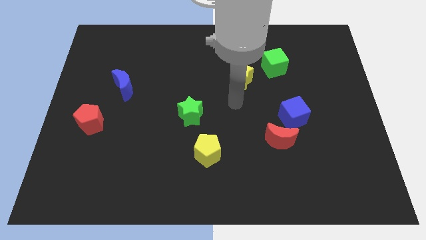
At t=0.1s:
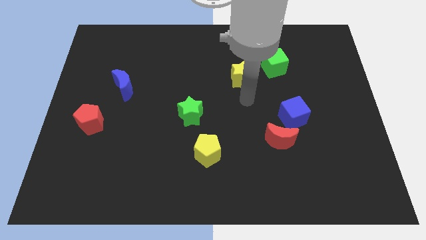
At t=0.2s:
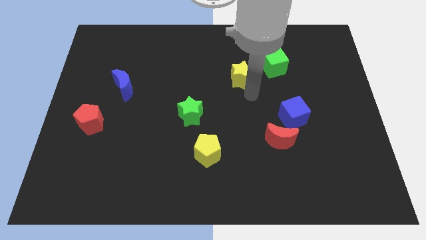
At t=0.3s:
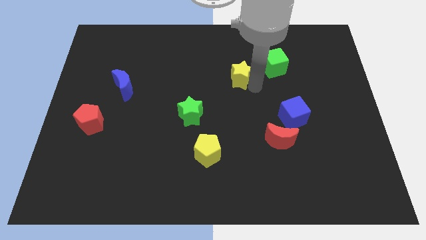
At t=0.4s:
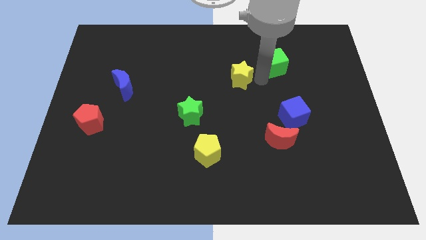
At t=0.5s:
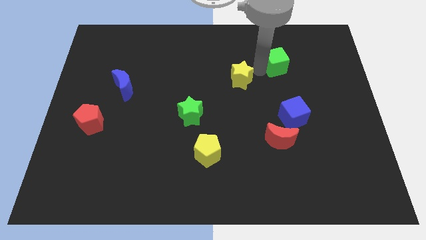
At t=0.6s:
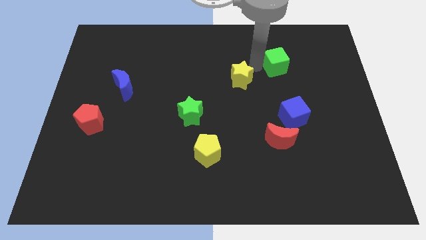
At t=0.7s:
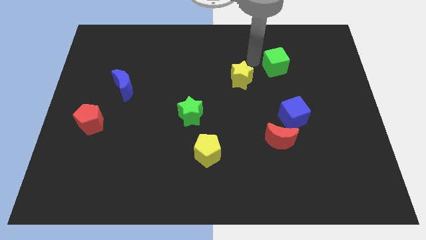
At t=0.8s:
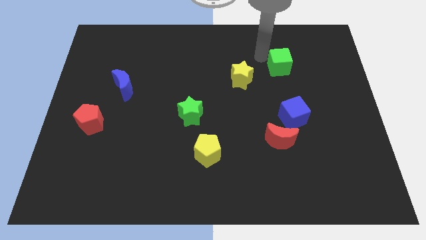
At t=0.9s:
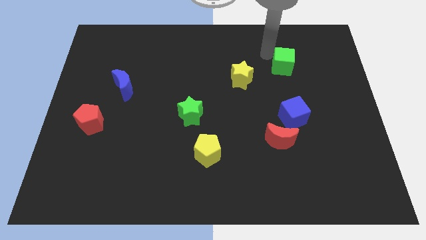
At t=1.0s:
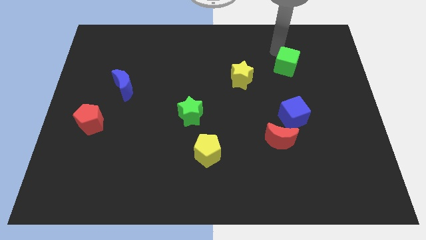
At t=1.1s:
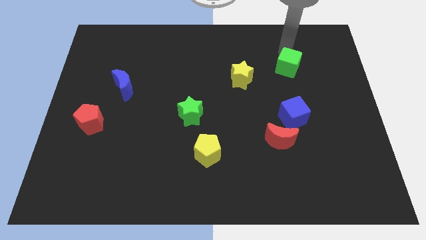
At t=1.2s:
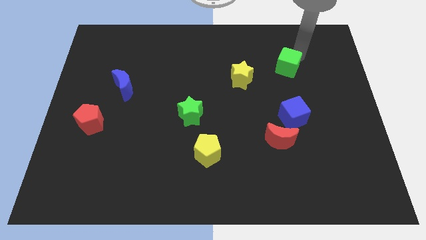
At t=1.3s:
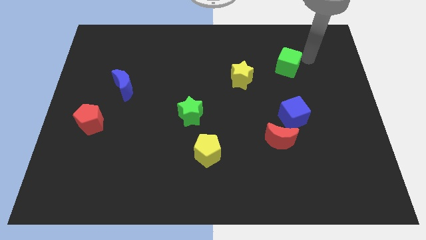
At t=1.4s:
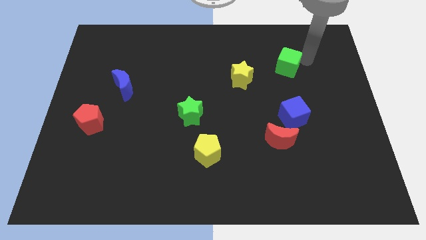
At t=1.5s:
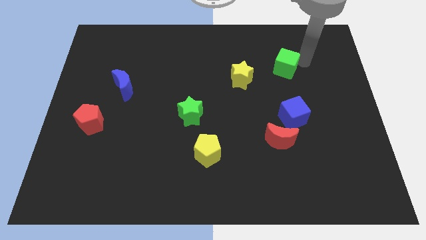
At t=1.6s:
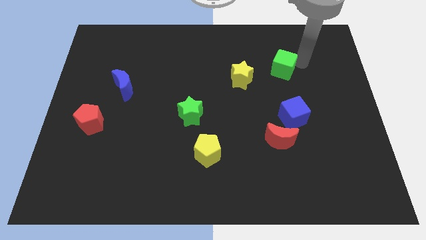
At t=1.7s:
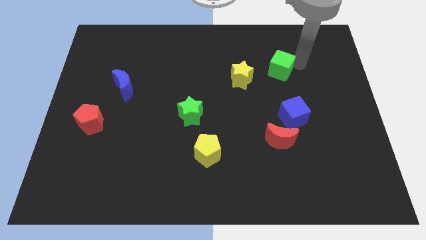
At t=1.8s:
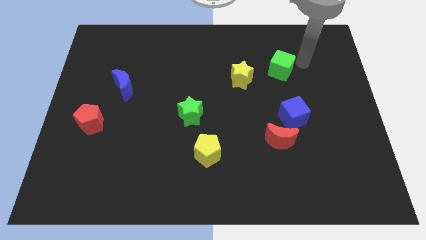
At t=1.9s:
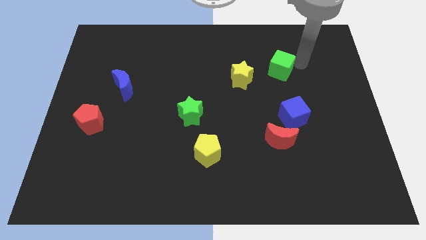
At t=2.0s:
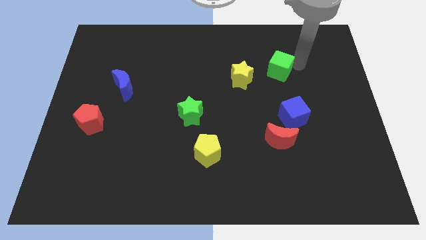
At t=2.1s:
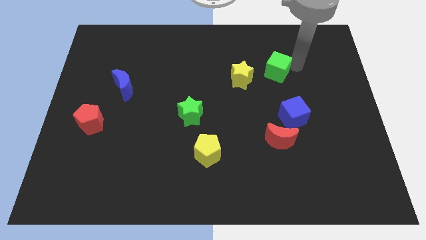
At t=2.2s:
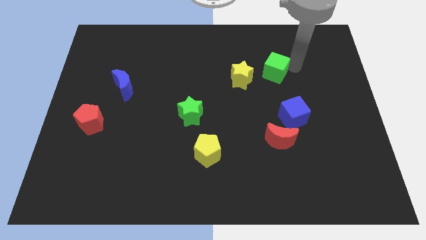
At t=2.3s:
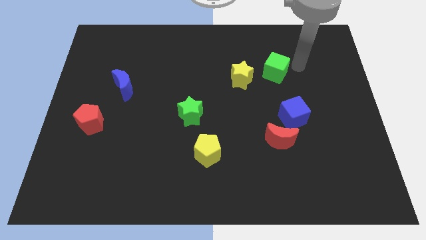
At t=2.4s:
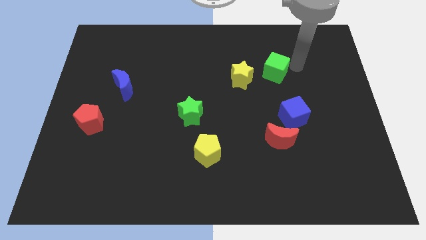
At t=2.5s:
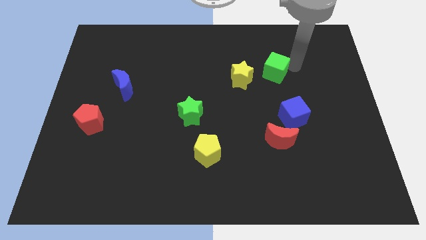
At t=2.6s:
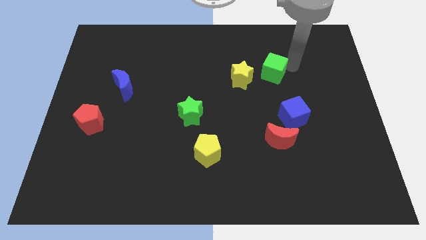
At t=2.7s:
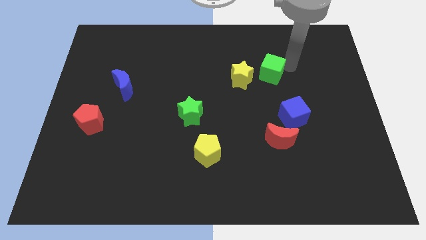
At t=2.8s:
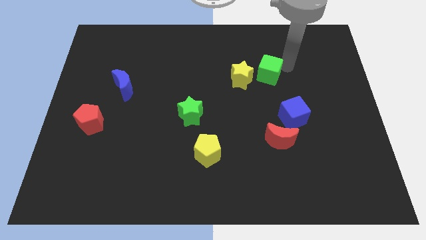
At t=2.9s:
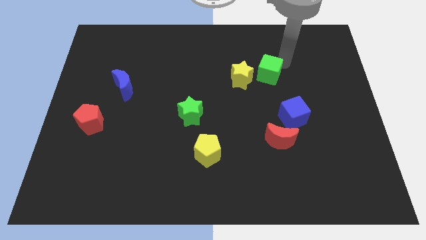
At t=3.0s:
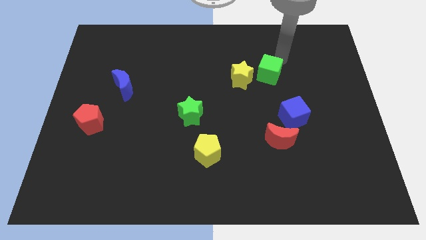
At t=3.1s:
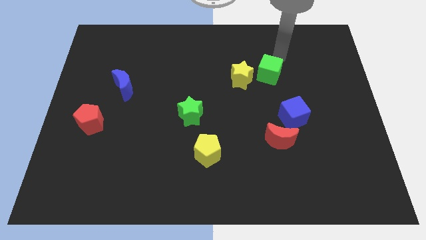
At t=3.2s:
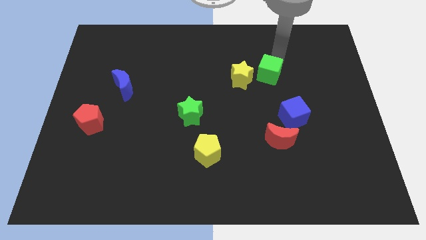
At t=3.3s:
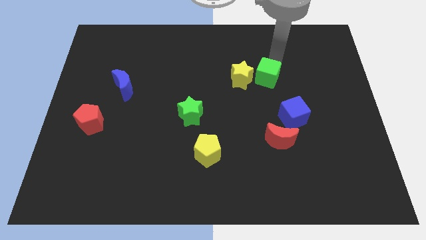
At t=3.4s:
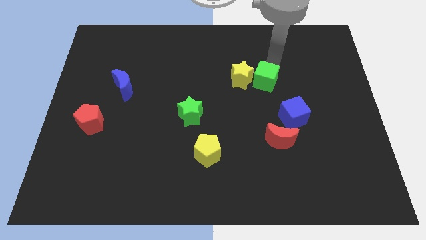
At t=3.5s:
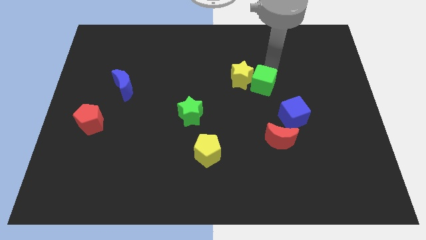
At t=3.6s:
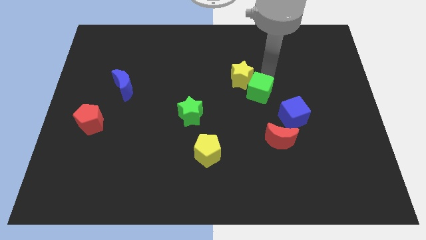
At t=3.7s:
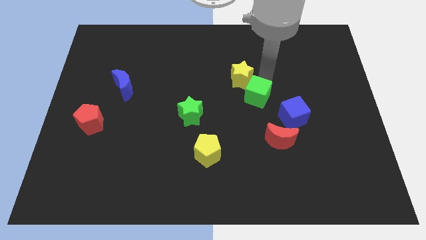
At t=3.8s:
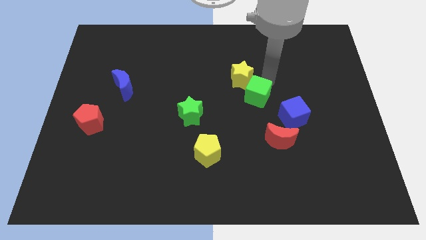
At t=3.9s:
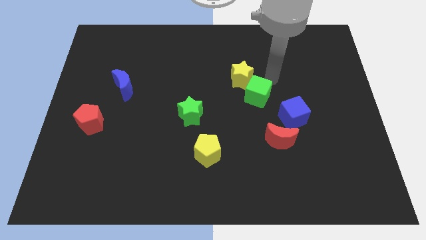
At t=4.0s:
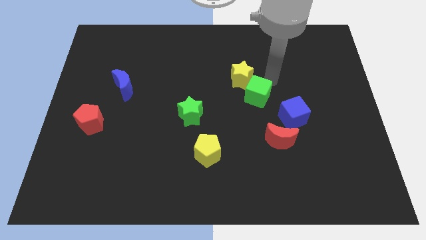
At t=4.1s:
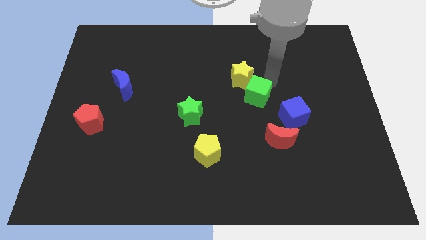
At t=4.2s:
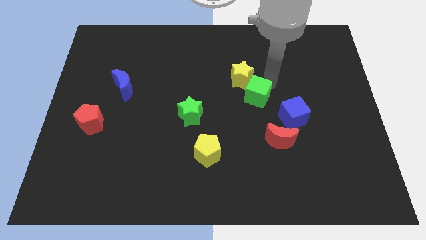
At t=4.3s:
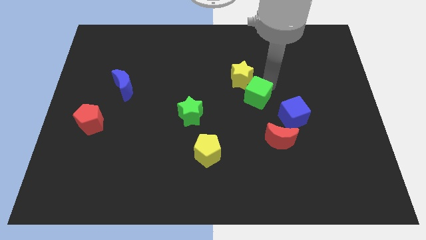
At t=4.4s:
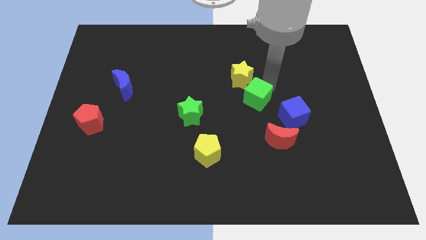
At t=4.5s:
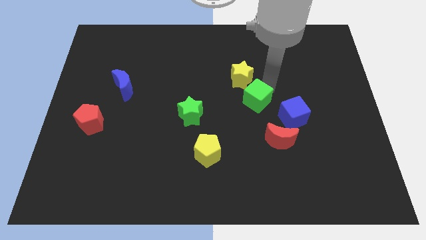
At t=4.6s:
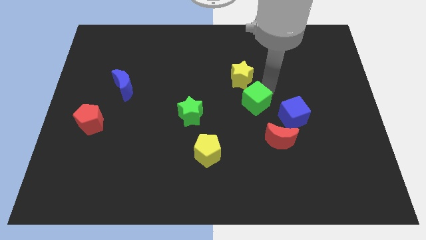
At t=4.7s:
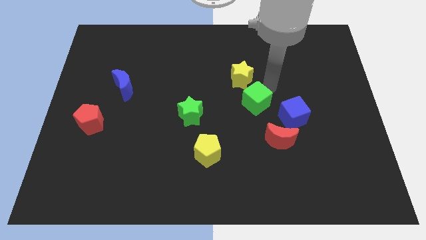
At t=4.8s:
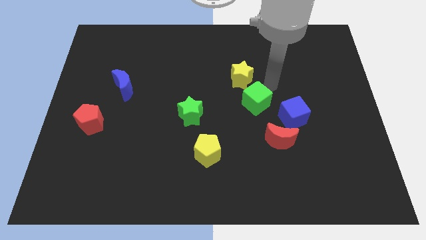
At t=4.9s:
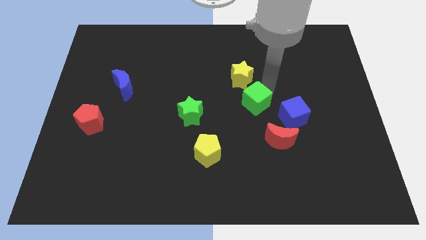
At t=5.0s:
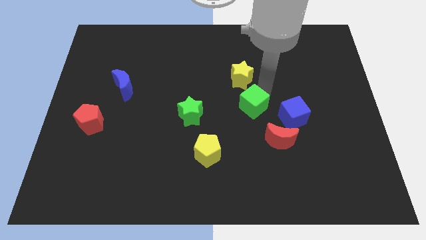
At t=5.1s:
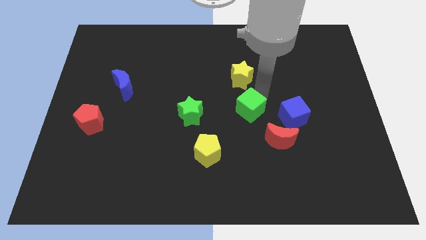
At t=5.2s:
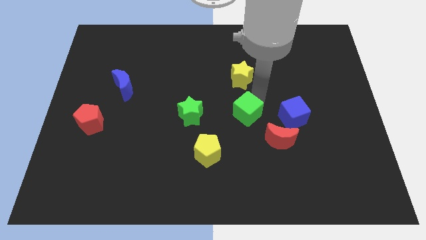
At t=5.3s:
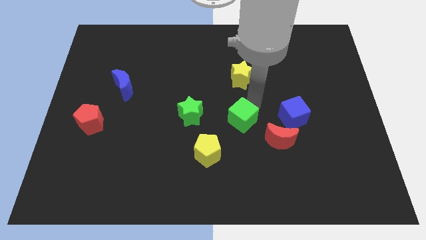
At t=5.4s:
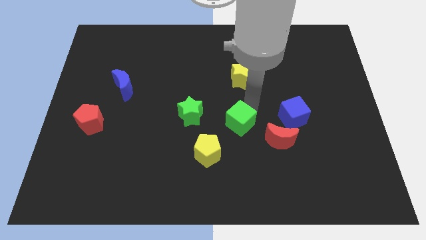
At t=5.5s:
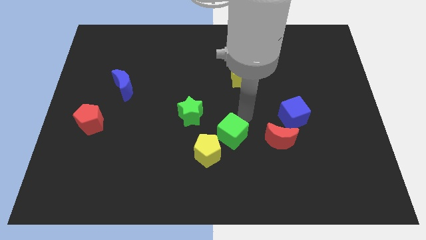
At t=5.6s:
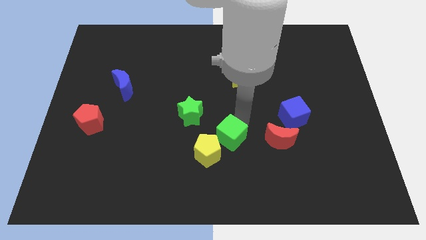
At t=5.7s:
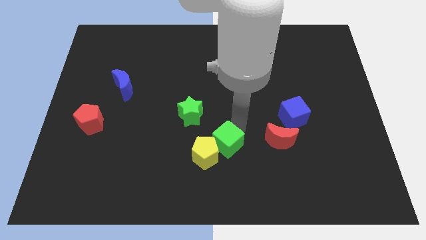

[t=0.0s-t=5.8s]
push the green cube next to the yellow pentagon

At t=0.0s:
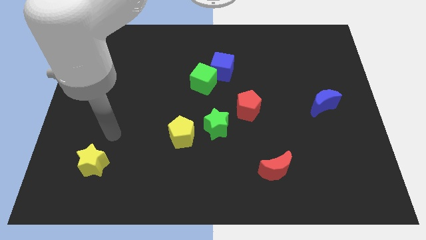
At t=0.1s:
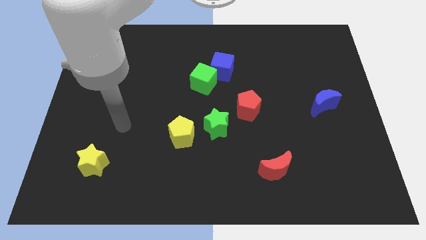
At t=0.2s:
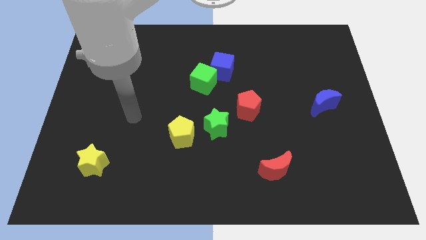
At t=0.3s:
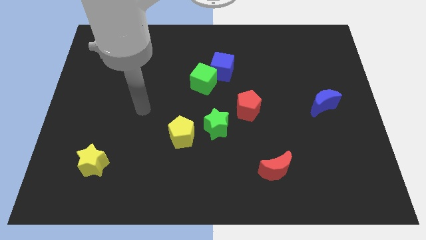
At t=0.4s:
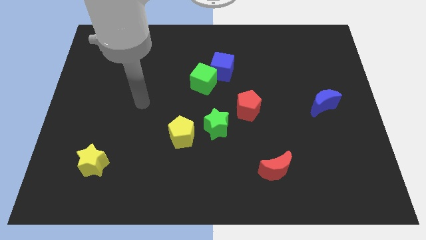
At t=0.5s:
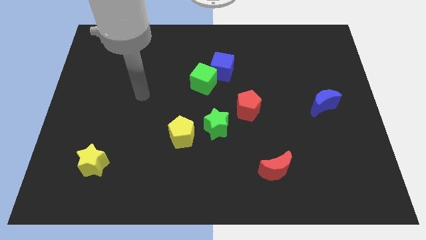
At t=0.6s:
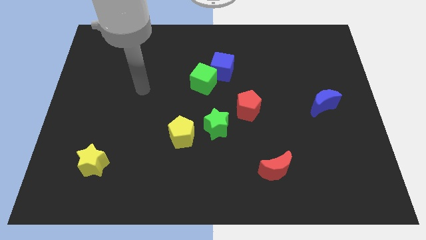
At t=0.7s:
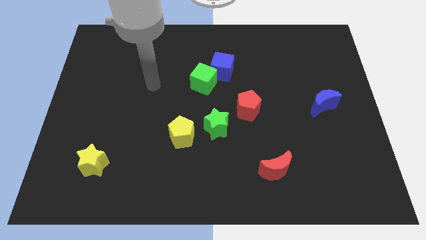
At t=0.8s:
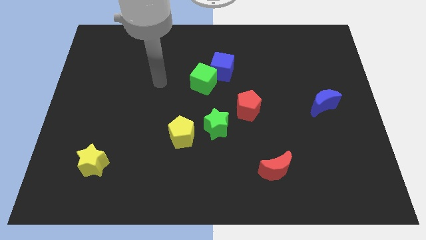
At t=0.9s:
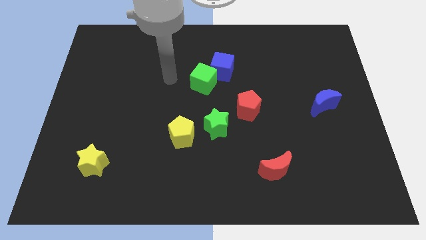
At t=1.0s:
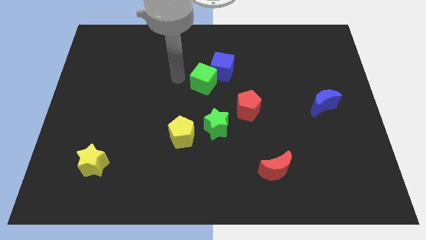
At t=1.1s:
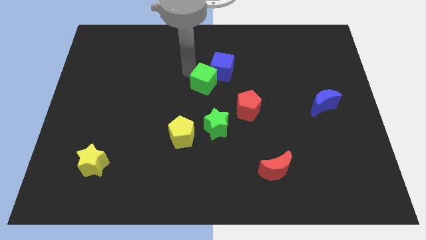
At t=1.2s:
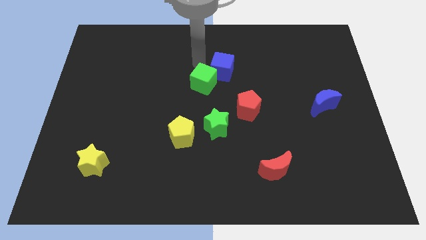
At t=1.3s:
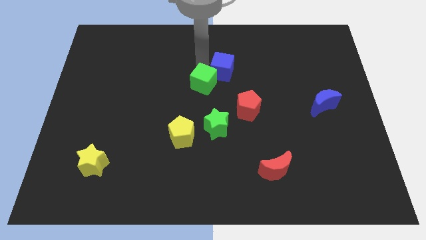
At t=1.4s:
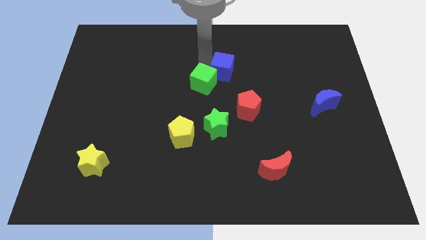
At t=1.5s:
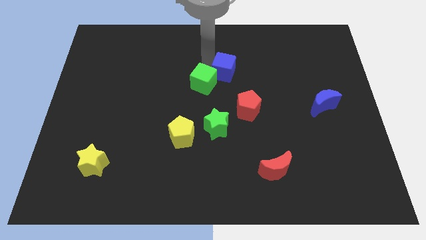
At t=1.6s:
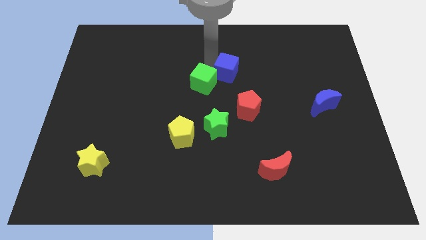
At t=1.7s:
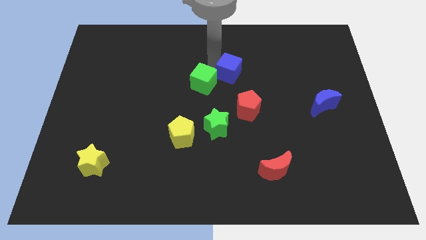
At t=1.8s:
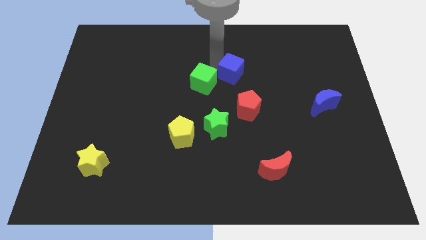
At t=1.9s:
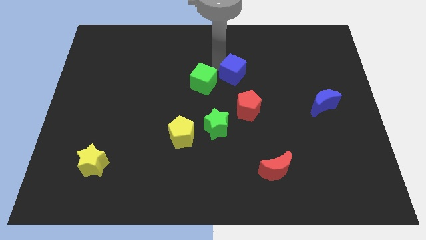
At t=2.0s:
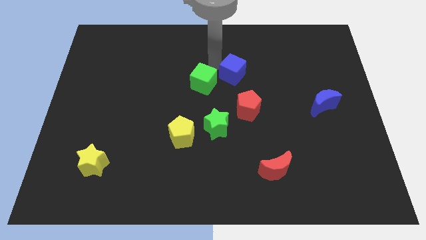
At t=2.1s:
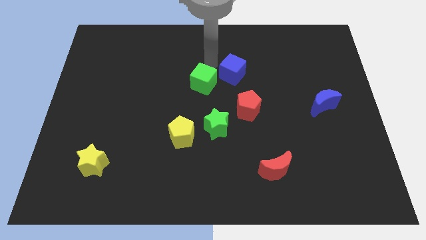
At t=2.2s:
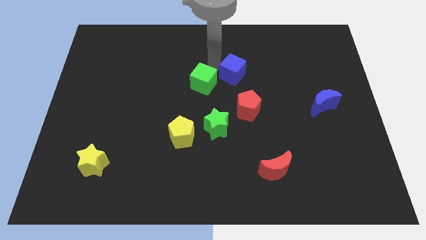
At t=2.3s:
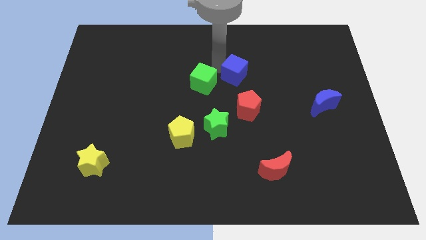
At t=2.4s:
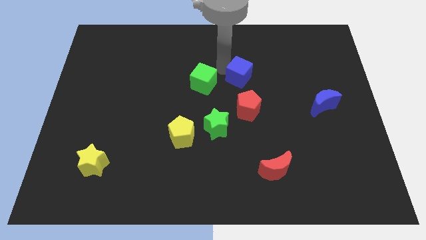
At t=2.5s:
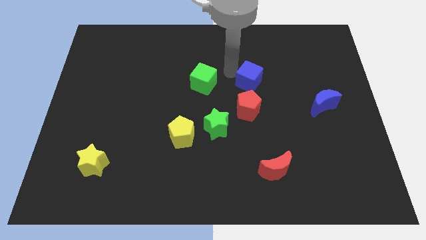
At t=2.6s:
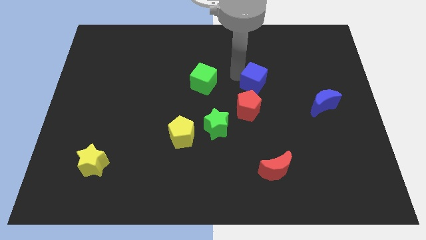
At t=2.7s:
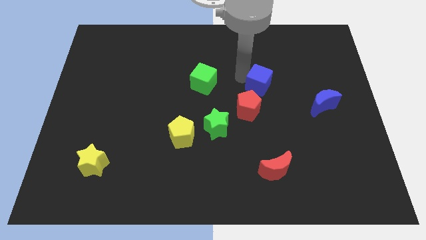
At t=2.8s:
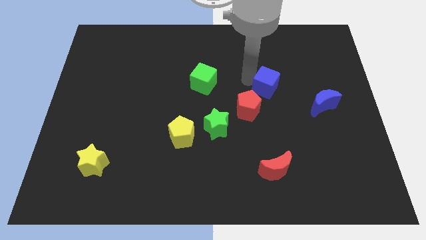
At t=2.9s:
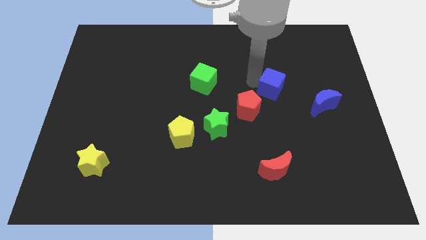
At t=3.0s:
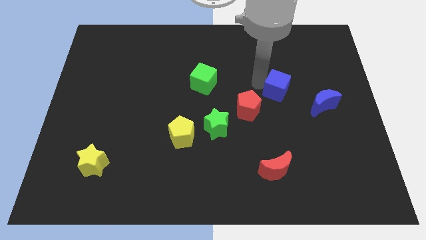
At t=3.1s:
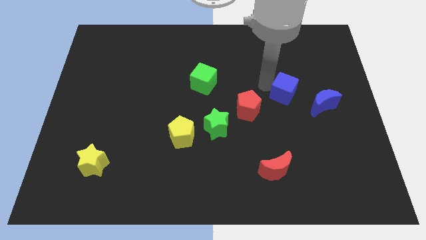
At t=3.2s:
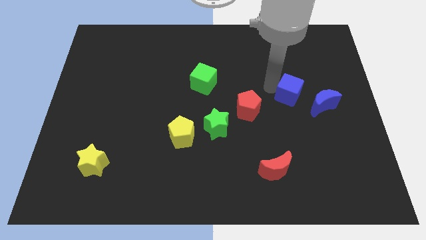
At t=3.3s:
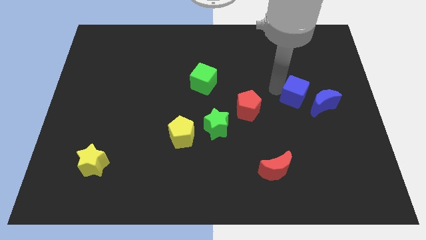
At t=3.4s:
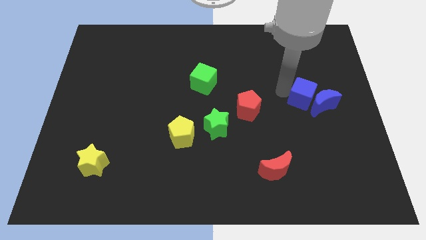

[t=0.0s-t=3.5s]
push the blue cube towards the blue moon
